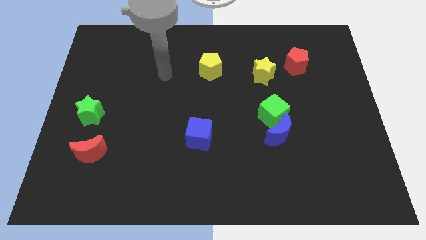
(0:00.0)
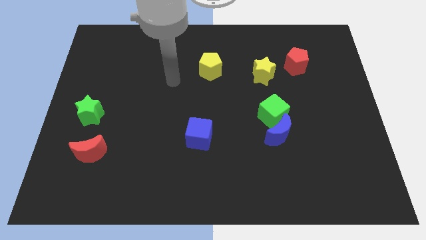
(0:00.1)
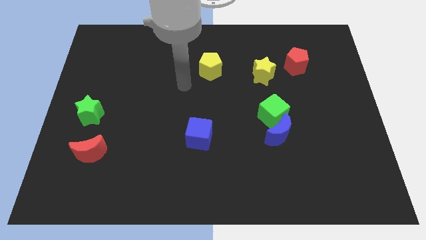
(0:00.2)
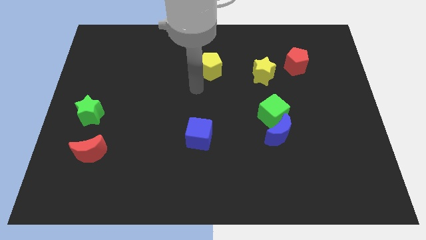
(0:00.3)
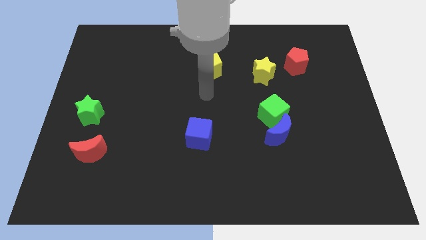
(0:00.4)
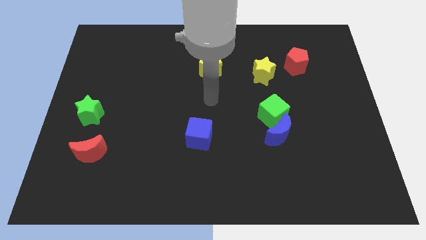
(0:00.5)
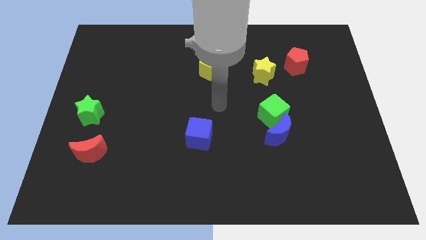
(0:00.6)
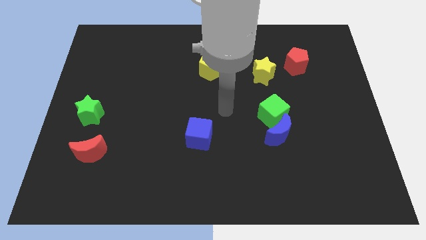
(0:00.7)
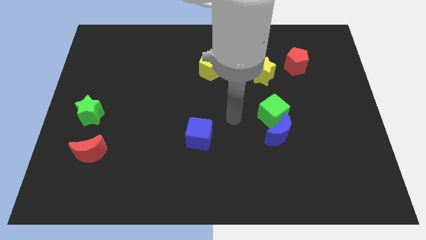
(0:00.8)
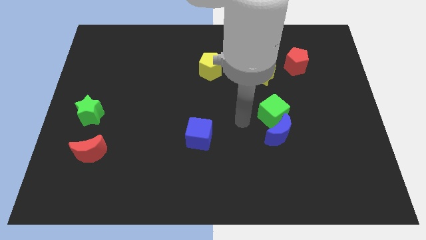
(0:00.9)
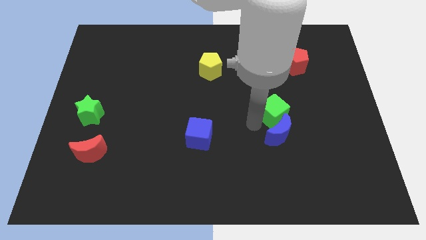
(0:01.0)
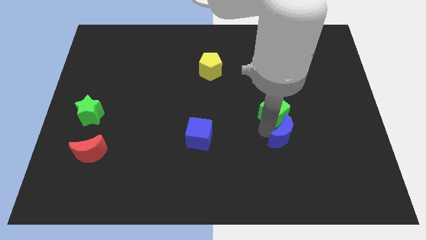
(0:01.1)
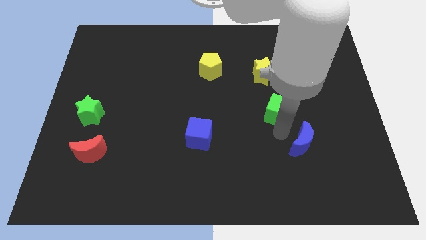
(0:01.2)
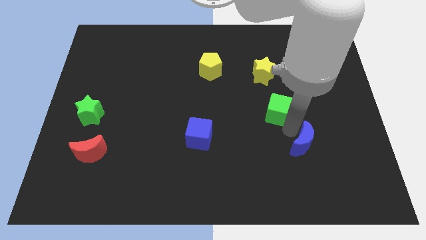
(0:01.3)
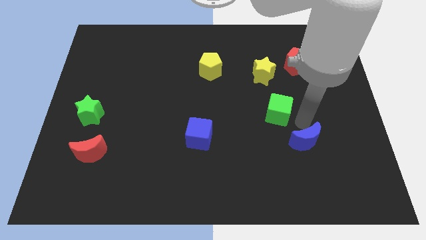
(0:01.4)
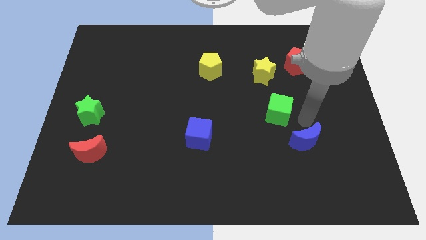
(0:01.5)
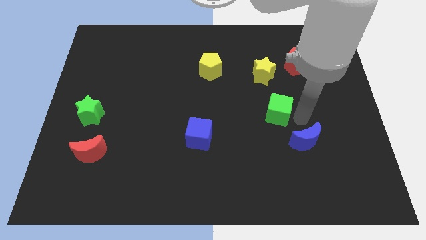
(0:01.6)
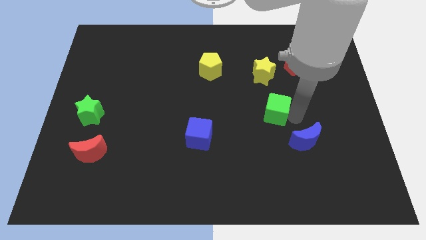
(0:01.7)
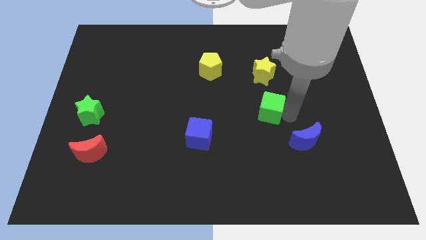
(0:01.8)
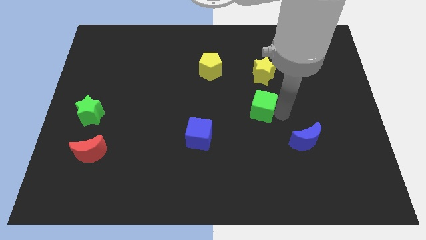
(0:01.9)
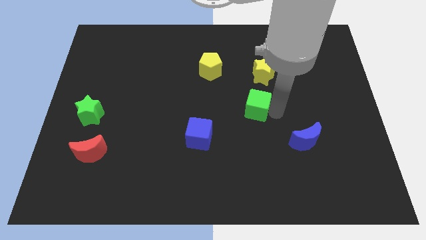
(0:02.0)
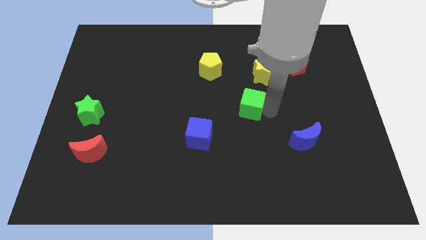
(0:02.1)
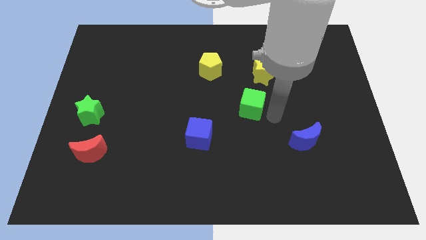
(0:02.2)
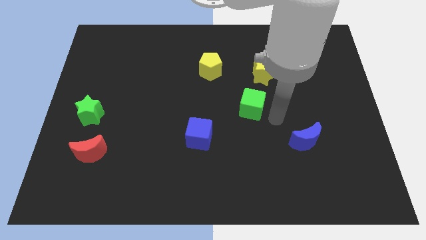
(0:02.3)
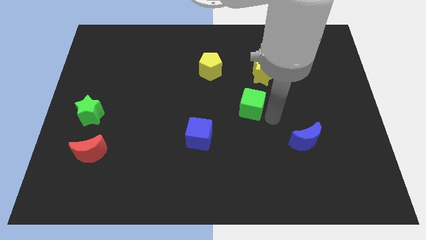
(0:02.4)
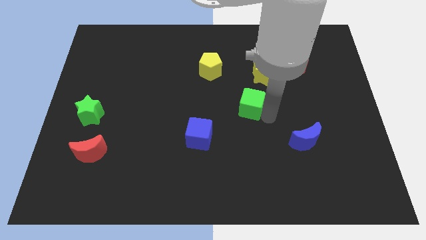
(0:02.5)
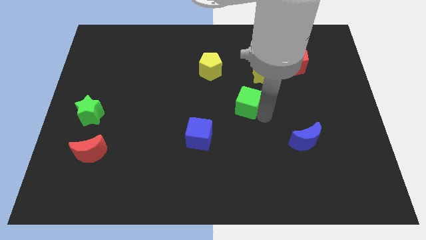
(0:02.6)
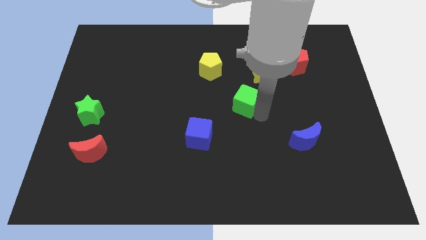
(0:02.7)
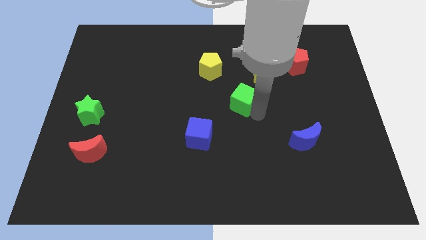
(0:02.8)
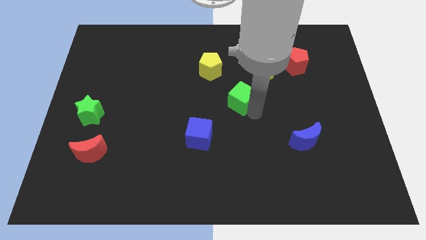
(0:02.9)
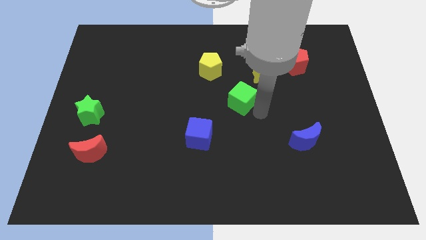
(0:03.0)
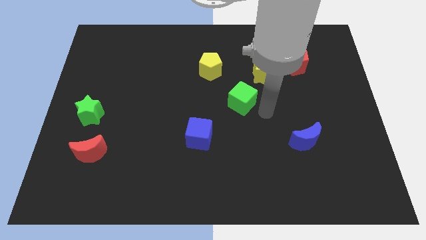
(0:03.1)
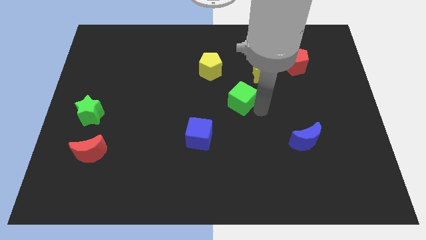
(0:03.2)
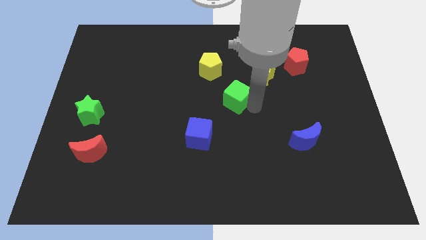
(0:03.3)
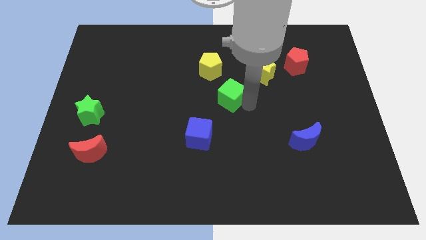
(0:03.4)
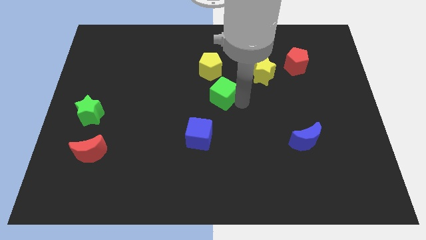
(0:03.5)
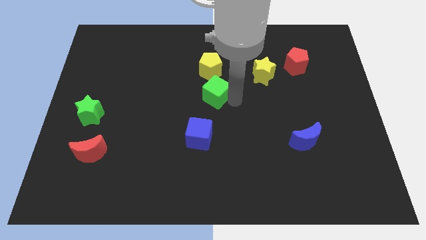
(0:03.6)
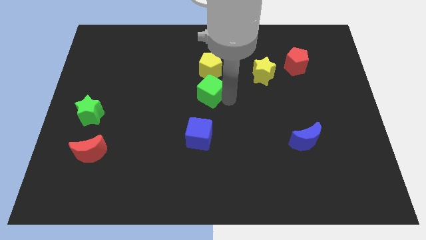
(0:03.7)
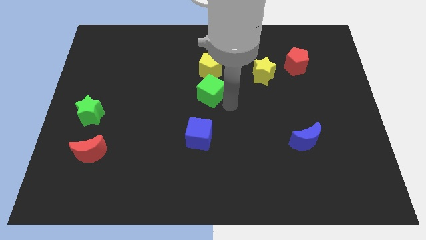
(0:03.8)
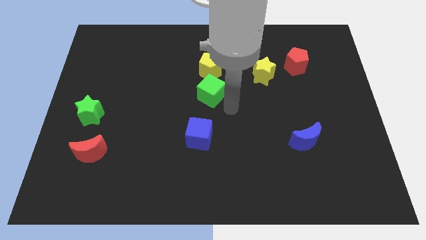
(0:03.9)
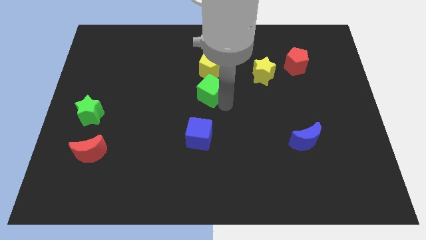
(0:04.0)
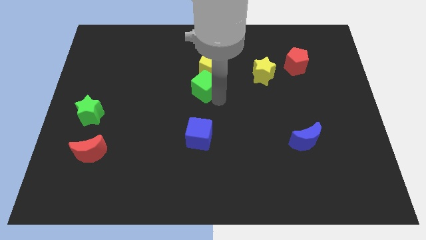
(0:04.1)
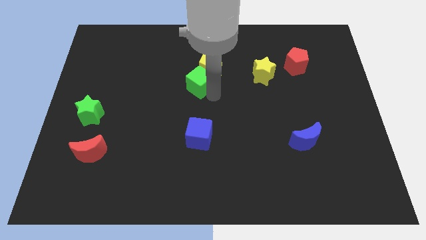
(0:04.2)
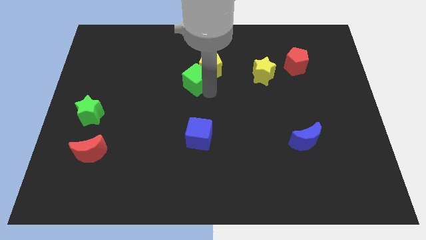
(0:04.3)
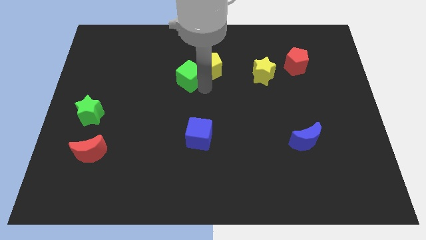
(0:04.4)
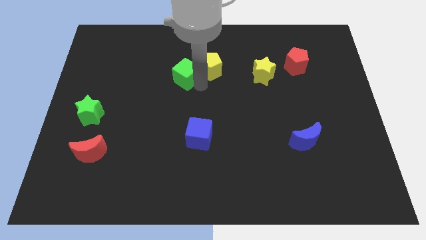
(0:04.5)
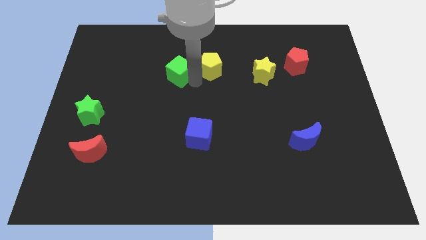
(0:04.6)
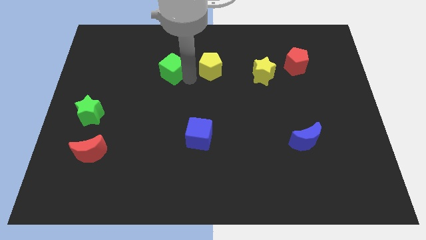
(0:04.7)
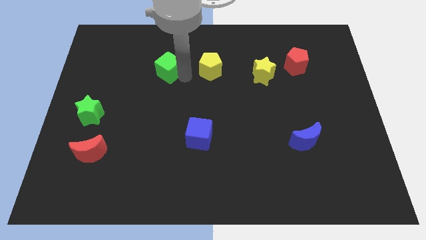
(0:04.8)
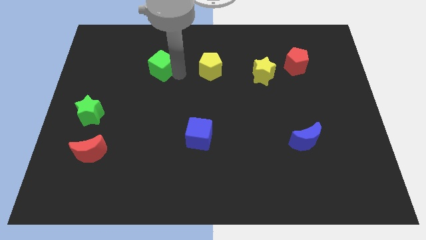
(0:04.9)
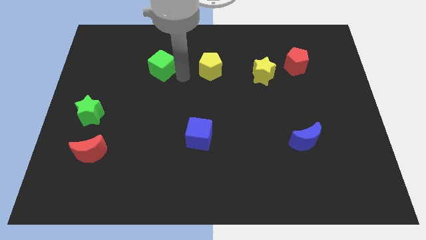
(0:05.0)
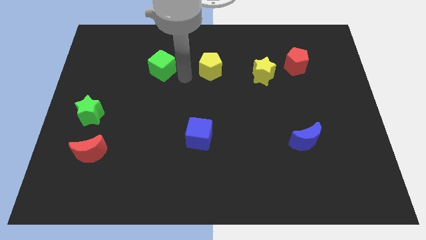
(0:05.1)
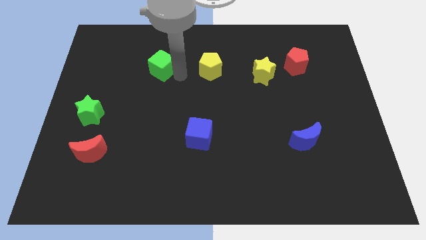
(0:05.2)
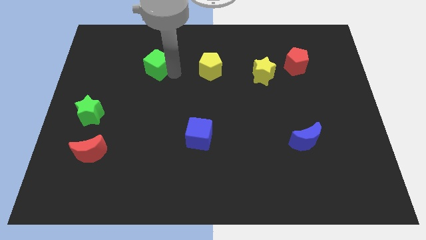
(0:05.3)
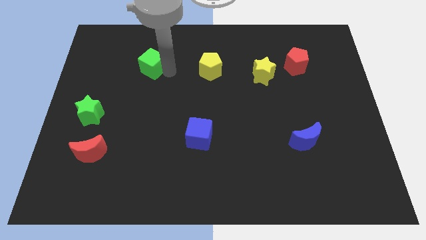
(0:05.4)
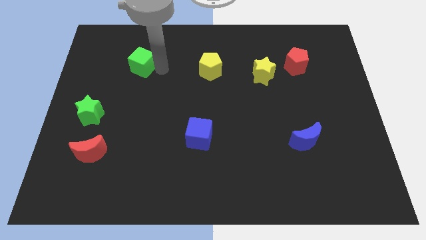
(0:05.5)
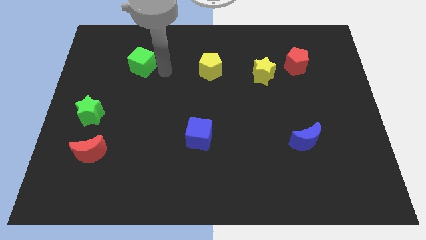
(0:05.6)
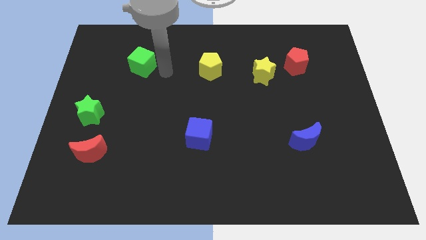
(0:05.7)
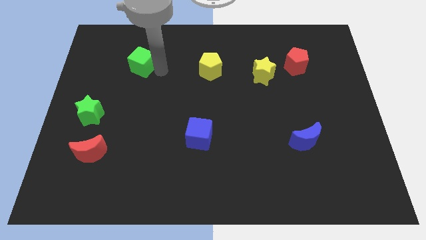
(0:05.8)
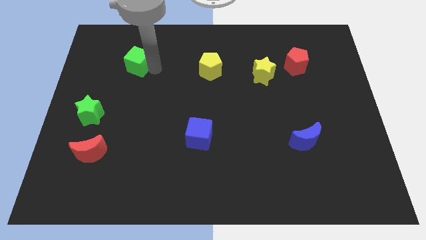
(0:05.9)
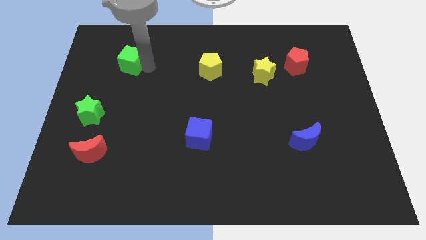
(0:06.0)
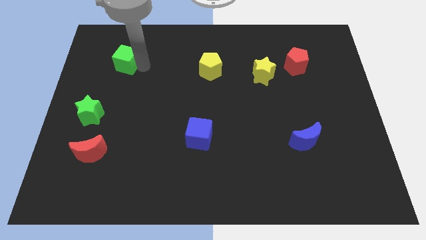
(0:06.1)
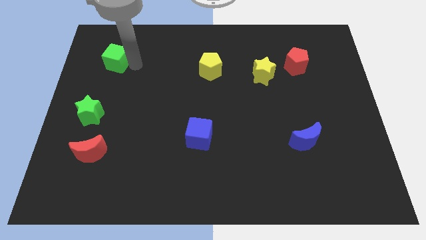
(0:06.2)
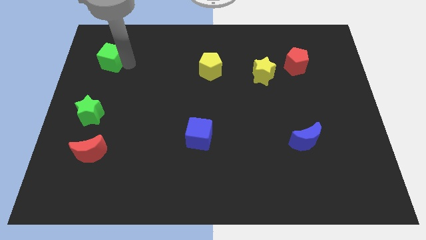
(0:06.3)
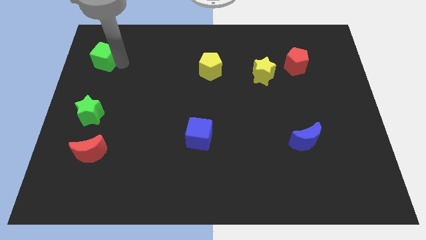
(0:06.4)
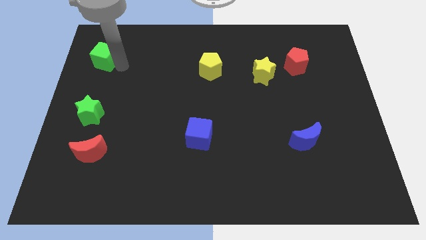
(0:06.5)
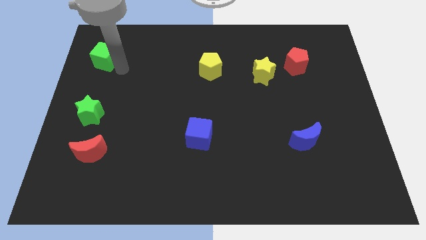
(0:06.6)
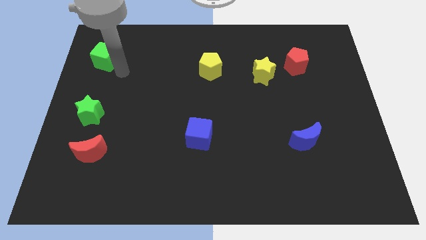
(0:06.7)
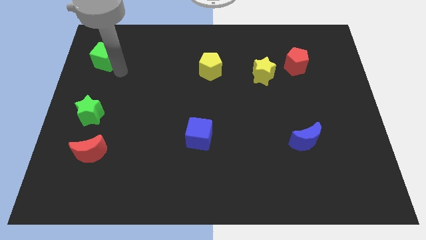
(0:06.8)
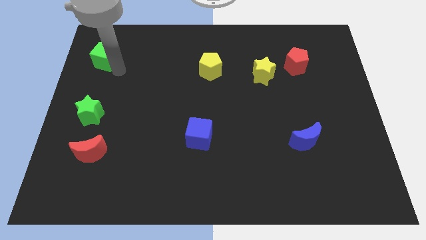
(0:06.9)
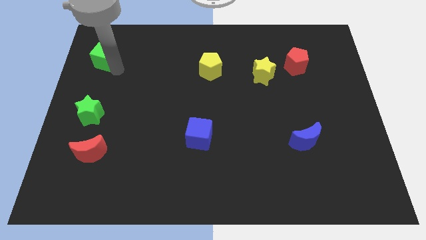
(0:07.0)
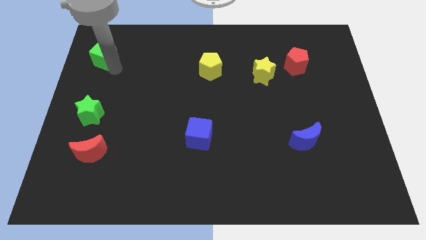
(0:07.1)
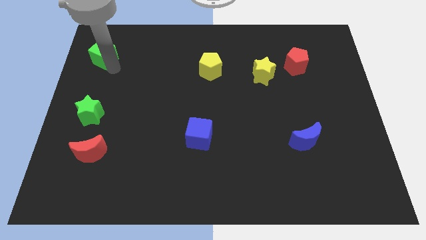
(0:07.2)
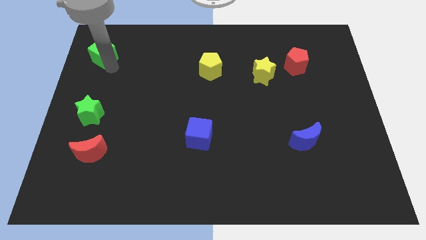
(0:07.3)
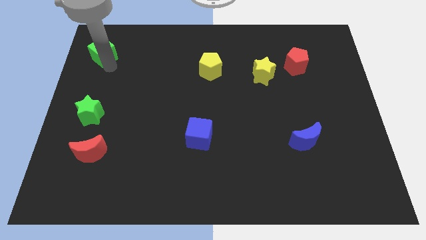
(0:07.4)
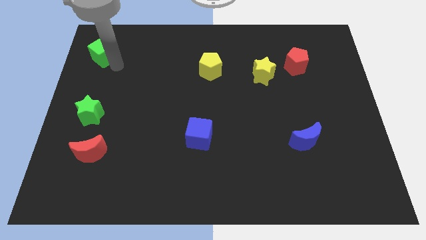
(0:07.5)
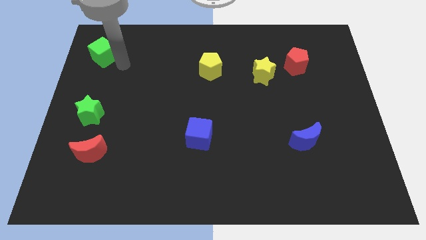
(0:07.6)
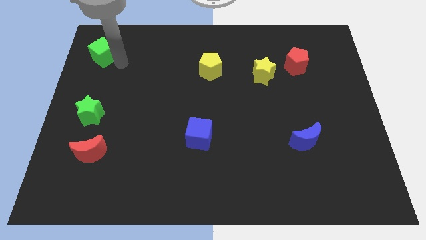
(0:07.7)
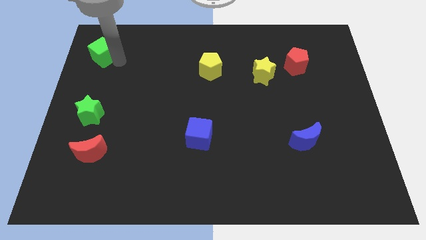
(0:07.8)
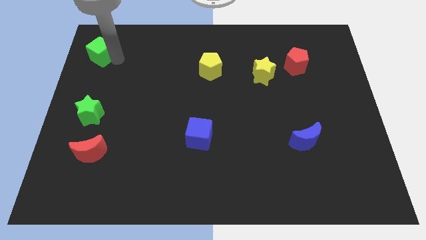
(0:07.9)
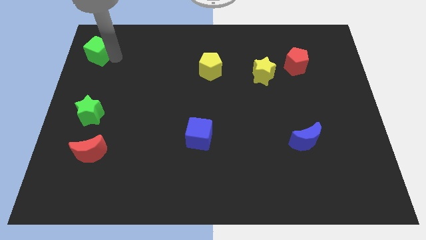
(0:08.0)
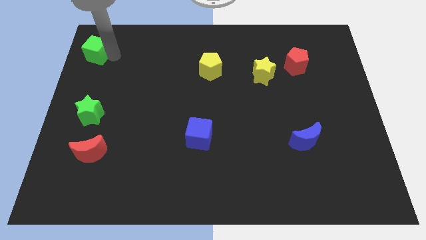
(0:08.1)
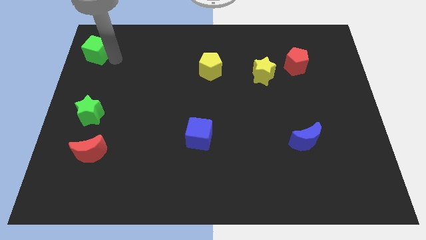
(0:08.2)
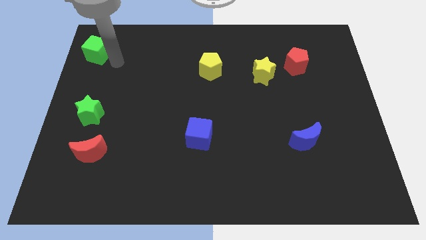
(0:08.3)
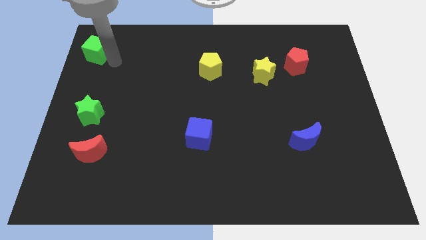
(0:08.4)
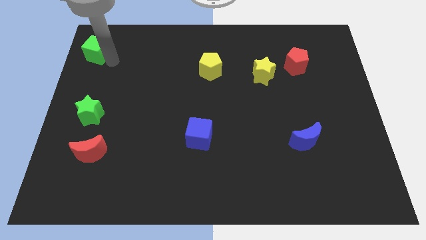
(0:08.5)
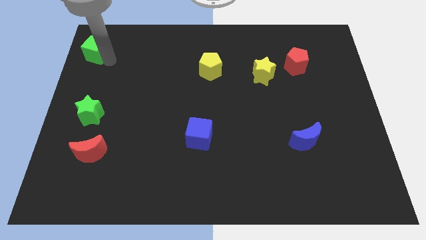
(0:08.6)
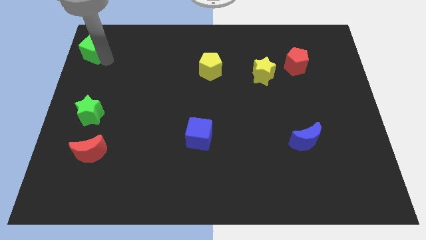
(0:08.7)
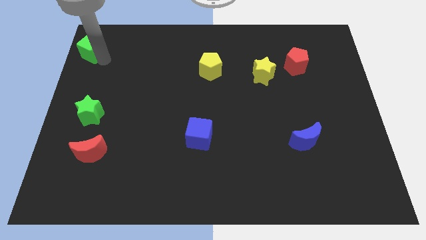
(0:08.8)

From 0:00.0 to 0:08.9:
slide the green cube to the upper left corner
